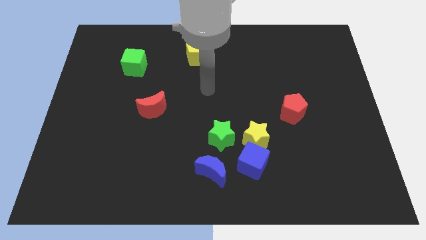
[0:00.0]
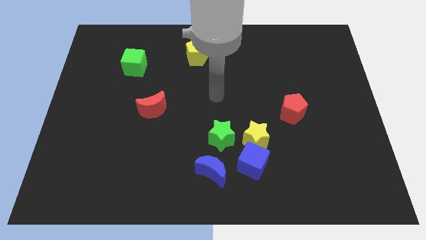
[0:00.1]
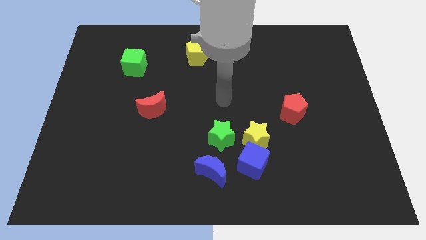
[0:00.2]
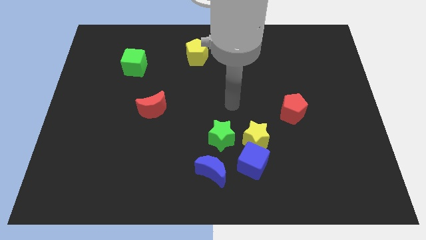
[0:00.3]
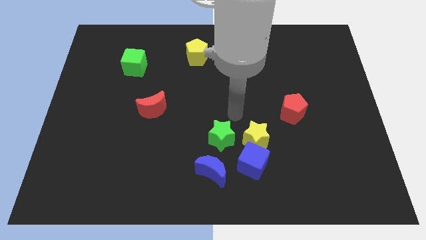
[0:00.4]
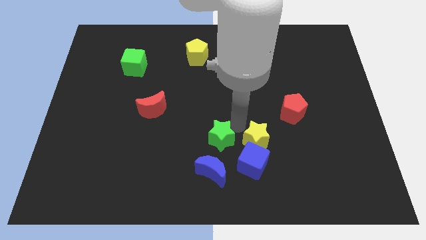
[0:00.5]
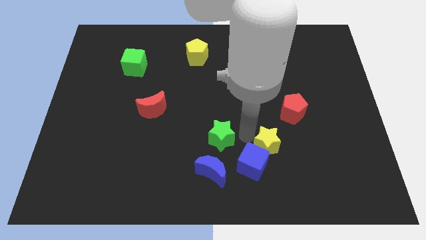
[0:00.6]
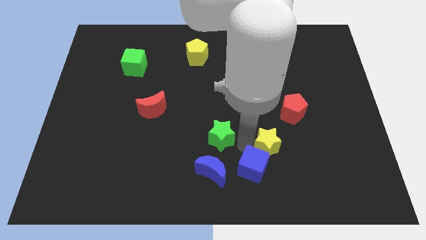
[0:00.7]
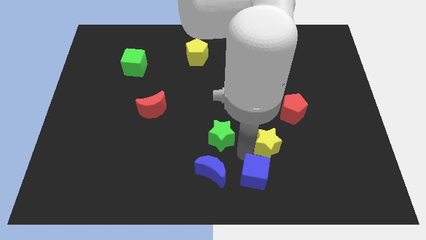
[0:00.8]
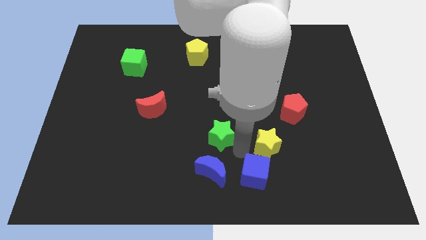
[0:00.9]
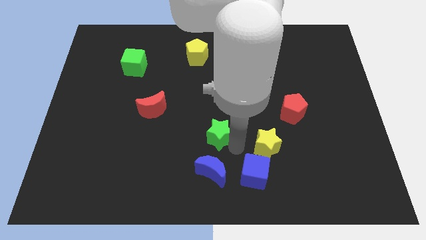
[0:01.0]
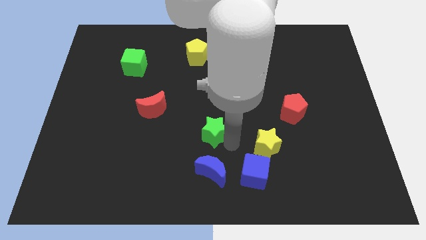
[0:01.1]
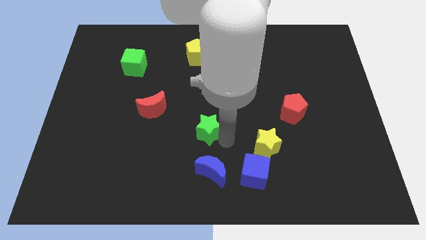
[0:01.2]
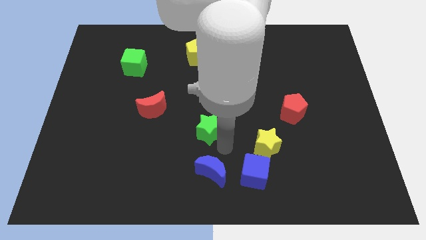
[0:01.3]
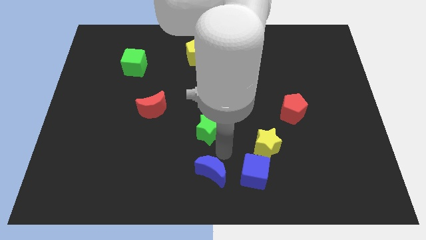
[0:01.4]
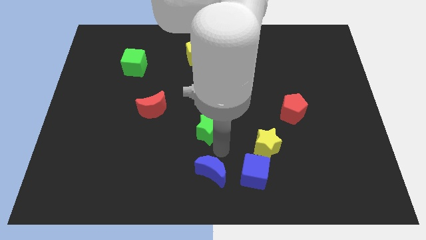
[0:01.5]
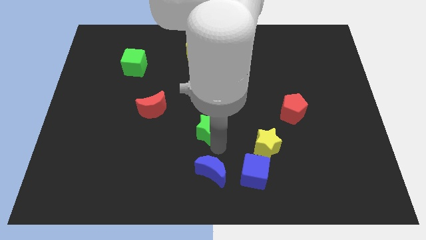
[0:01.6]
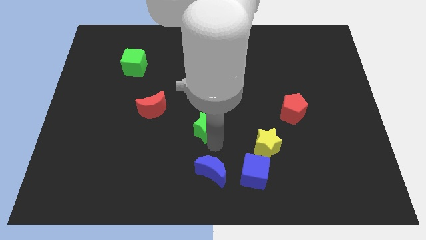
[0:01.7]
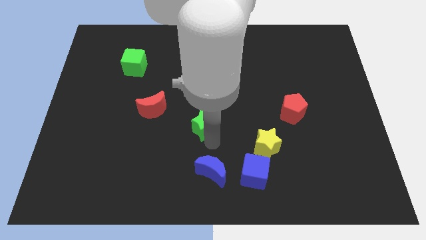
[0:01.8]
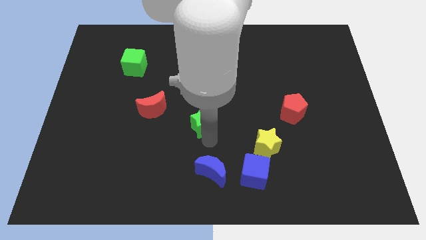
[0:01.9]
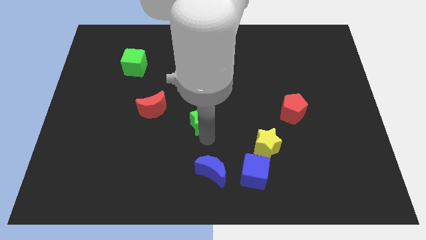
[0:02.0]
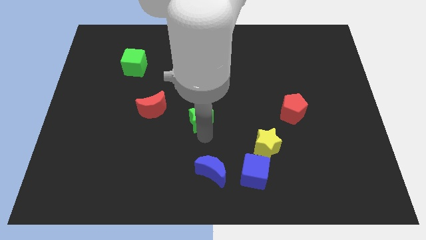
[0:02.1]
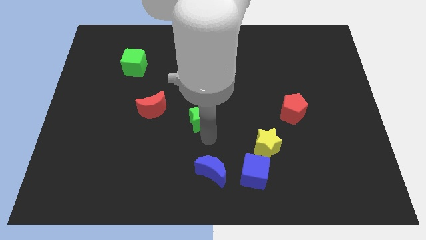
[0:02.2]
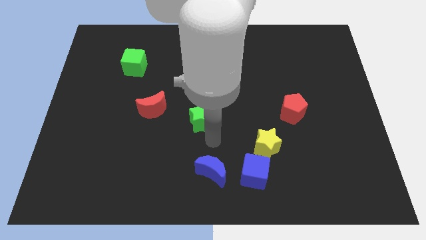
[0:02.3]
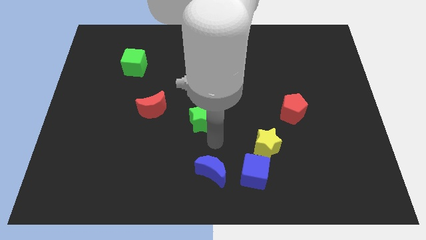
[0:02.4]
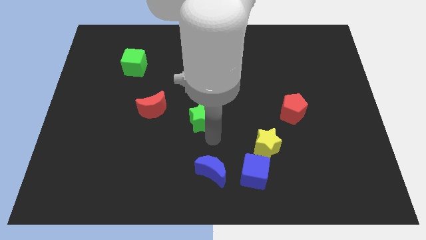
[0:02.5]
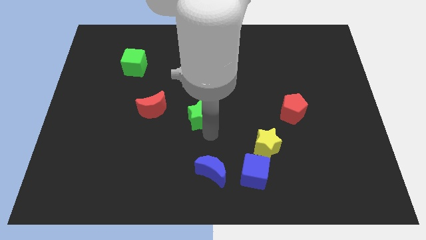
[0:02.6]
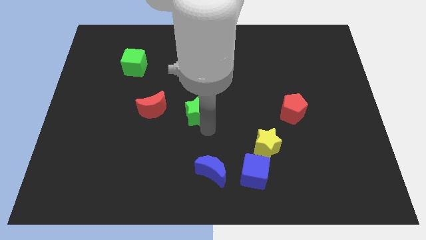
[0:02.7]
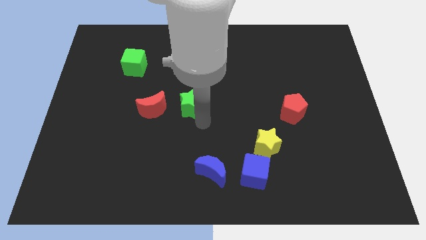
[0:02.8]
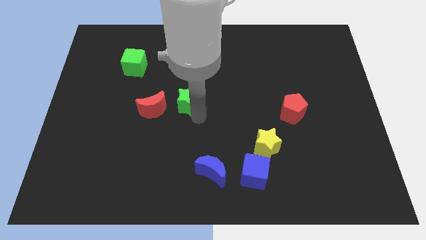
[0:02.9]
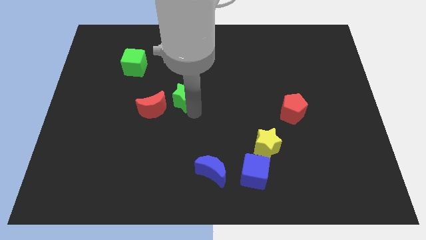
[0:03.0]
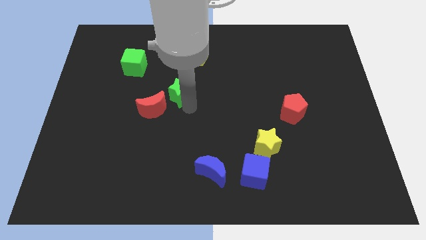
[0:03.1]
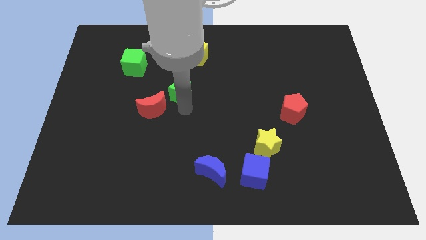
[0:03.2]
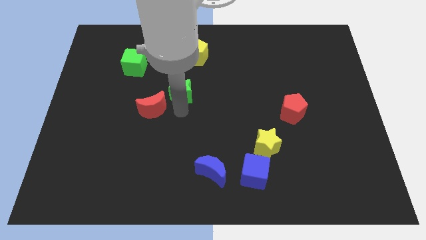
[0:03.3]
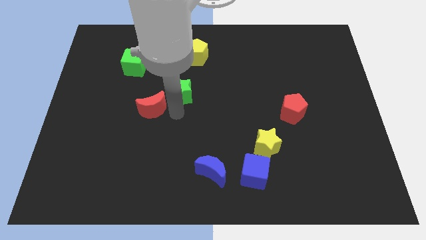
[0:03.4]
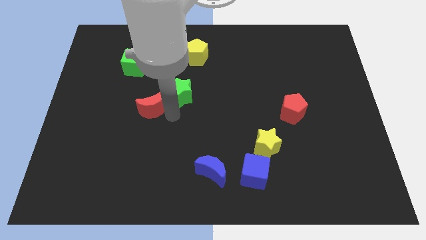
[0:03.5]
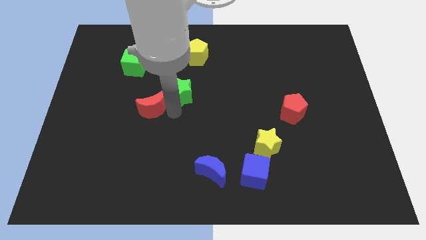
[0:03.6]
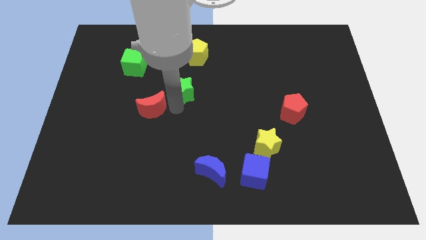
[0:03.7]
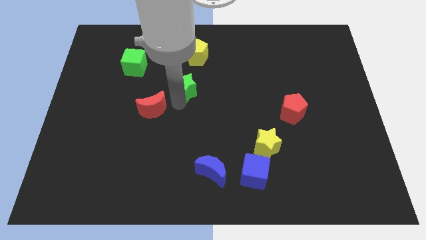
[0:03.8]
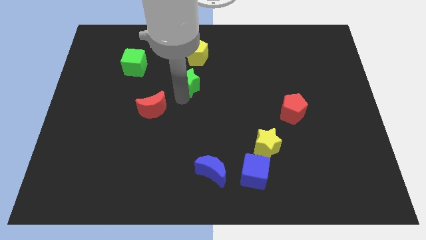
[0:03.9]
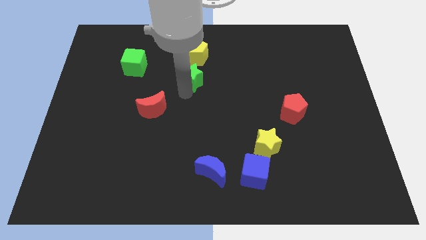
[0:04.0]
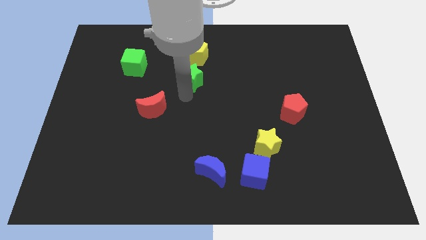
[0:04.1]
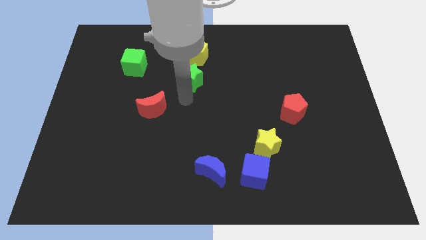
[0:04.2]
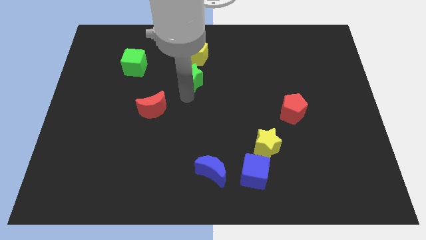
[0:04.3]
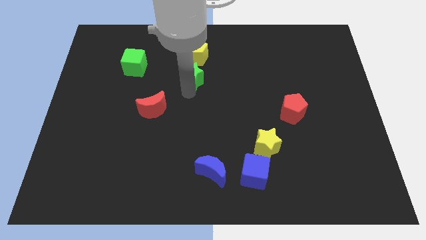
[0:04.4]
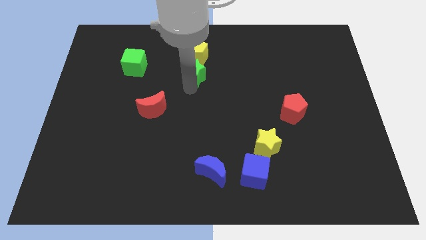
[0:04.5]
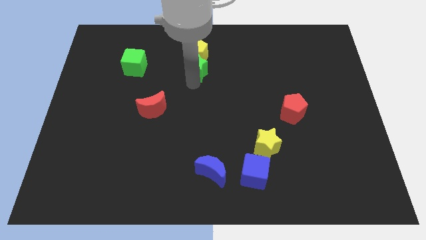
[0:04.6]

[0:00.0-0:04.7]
push the green star to the yellow pentagon

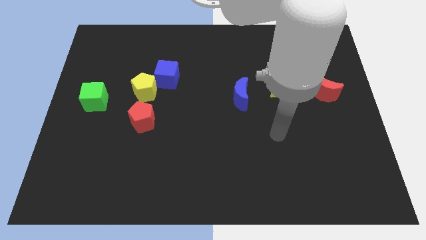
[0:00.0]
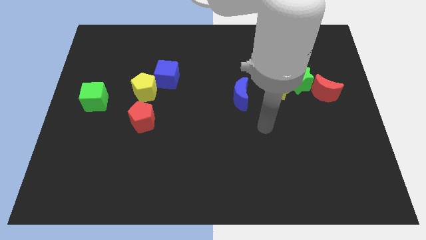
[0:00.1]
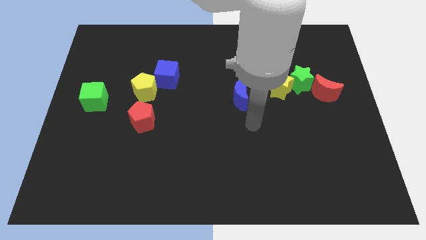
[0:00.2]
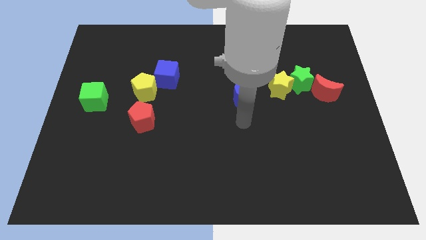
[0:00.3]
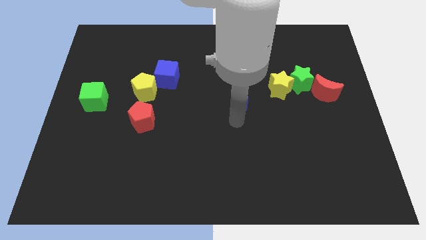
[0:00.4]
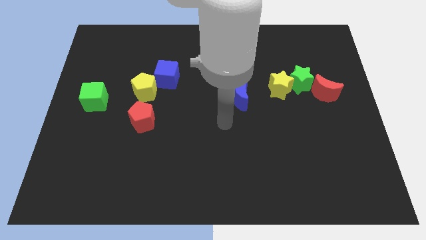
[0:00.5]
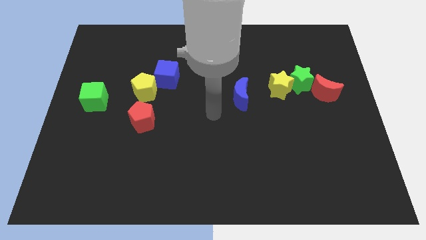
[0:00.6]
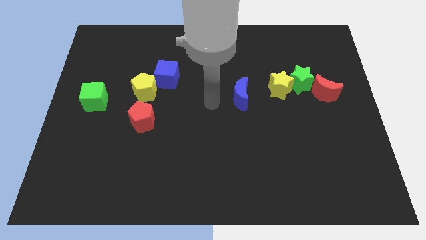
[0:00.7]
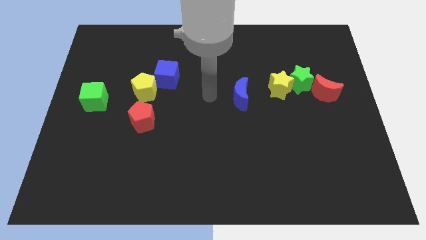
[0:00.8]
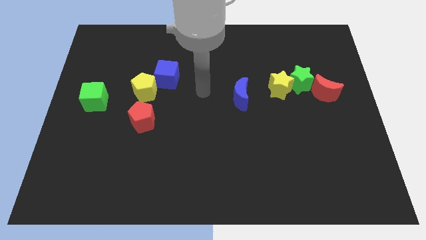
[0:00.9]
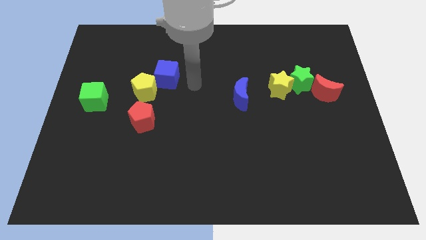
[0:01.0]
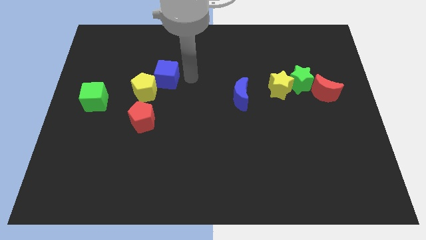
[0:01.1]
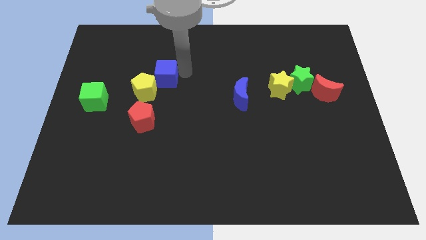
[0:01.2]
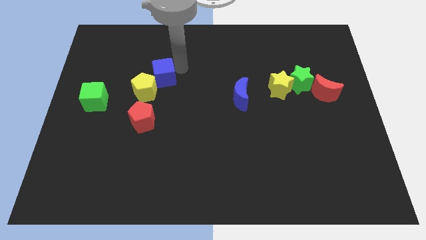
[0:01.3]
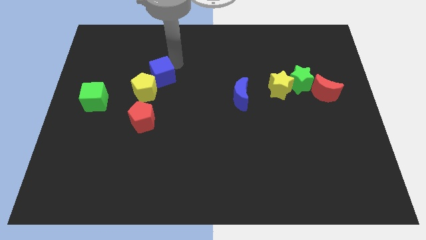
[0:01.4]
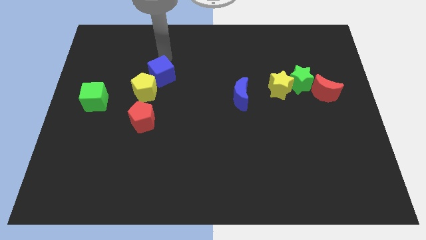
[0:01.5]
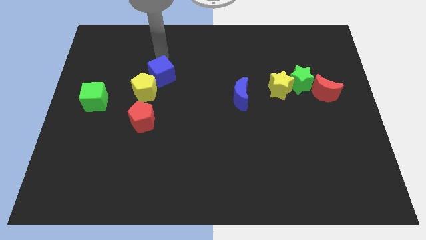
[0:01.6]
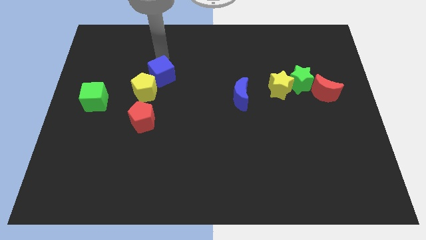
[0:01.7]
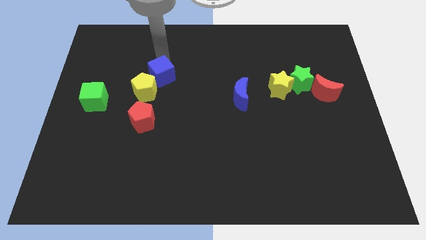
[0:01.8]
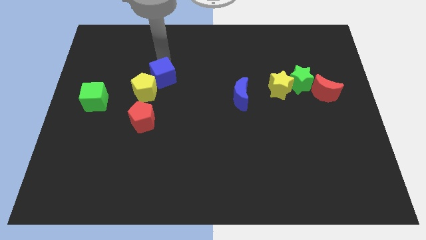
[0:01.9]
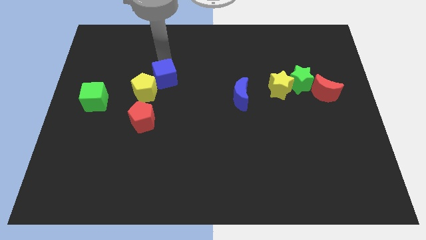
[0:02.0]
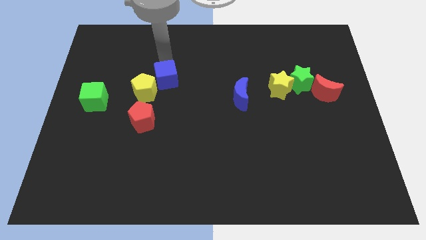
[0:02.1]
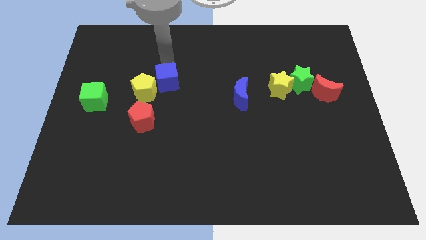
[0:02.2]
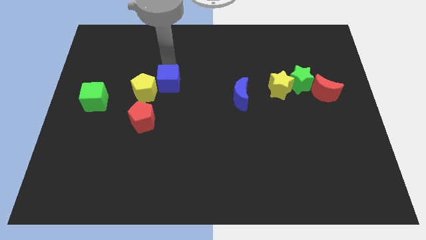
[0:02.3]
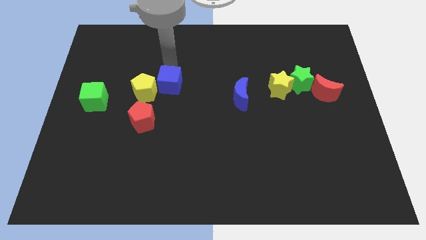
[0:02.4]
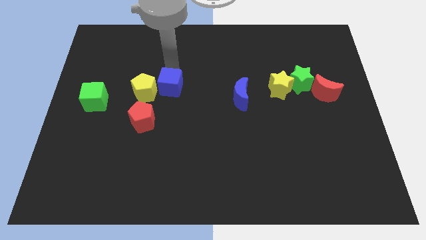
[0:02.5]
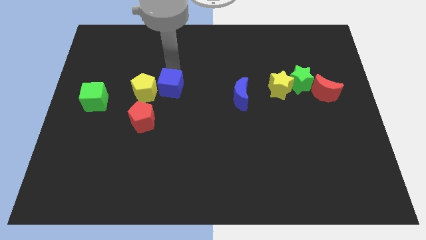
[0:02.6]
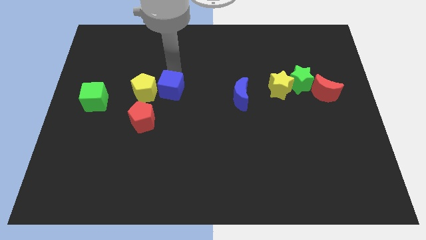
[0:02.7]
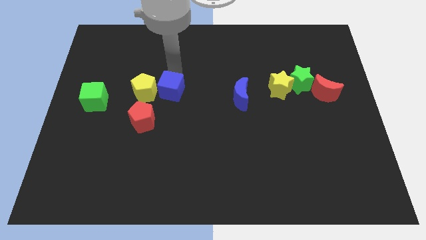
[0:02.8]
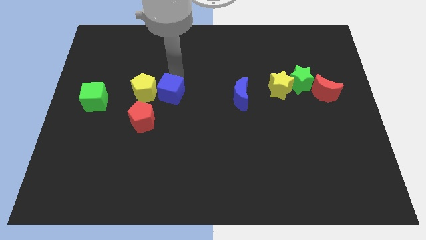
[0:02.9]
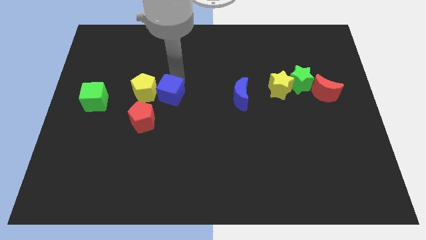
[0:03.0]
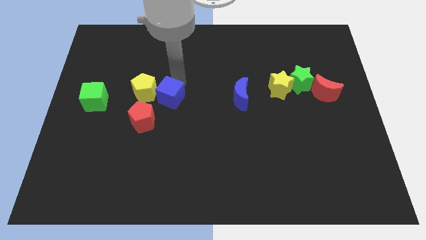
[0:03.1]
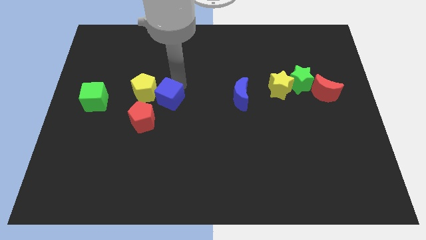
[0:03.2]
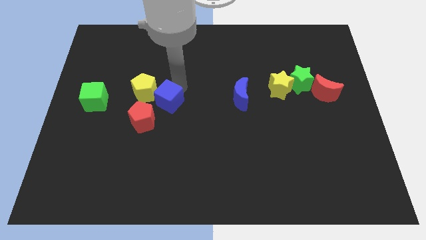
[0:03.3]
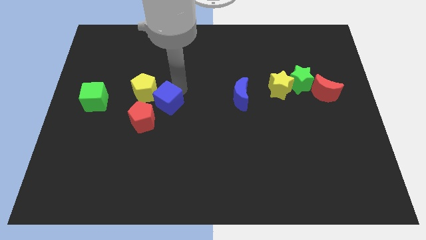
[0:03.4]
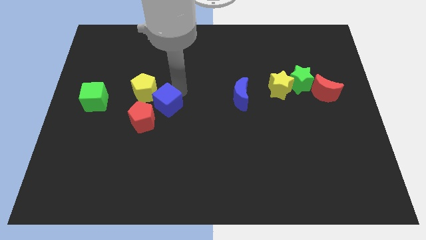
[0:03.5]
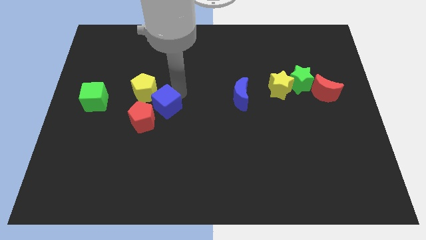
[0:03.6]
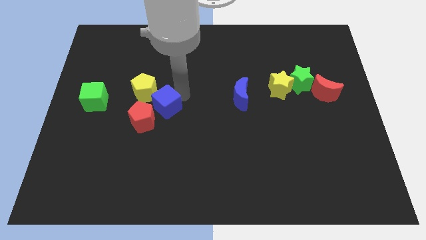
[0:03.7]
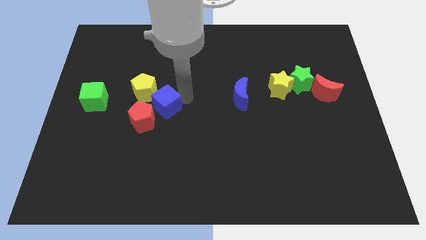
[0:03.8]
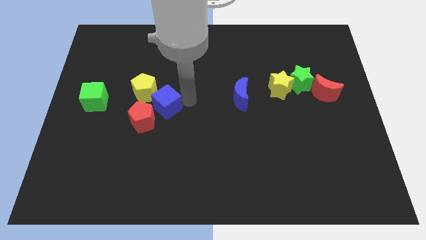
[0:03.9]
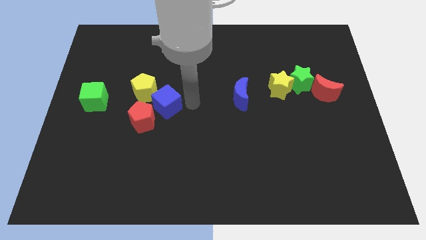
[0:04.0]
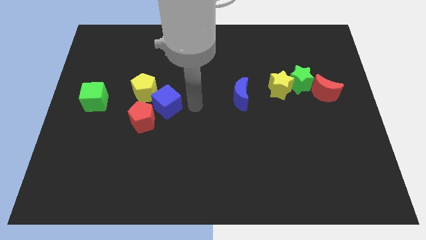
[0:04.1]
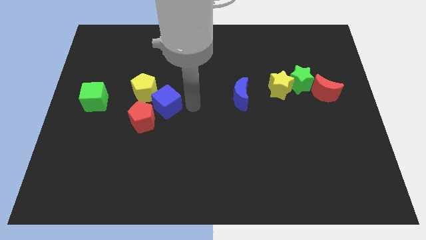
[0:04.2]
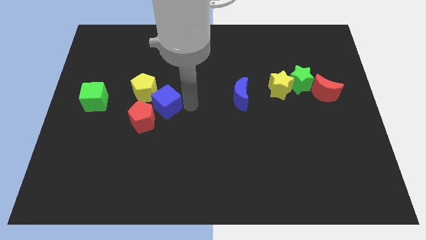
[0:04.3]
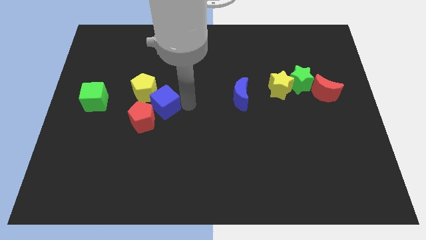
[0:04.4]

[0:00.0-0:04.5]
push the blue cube to the red pentagon
